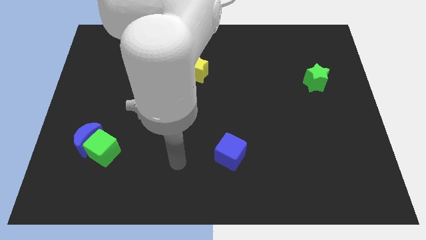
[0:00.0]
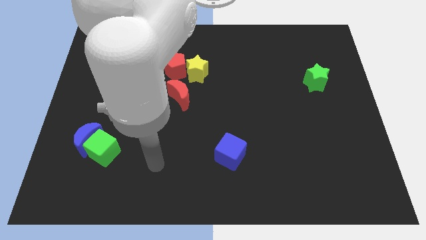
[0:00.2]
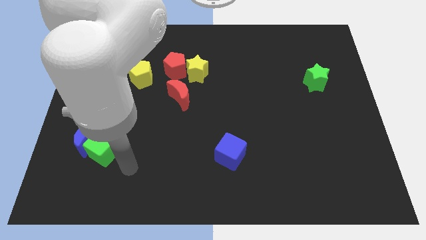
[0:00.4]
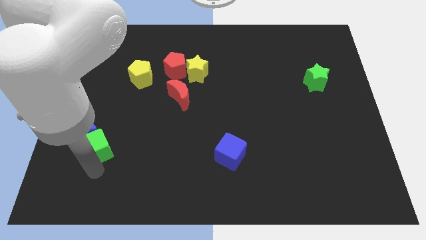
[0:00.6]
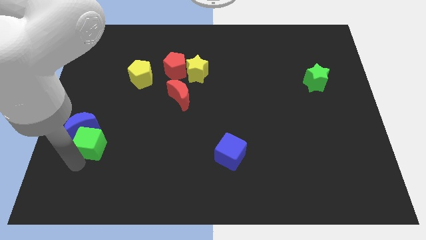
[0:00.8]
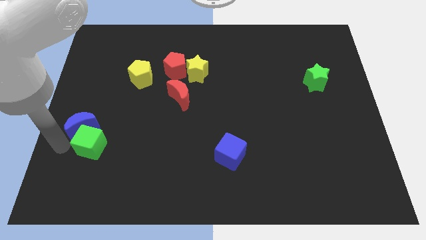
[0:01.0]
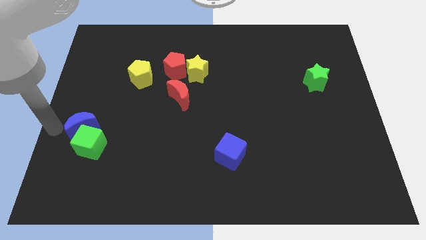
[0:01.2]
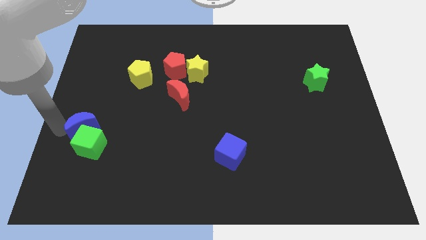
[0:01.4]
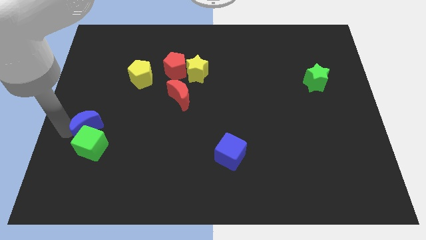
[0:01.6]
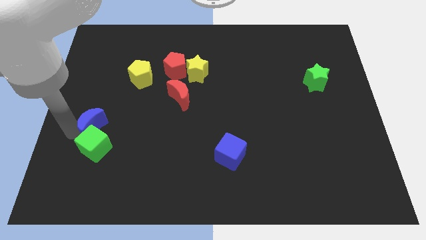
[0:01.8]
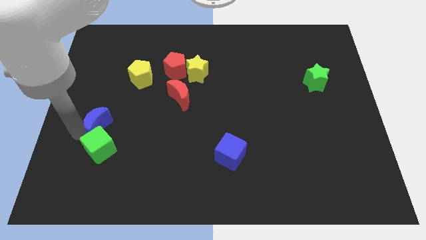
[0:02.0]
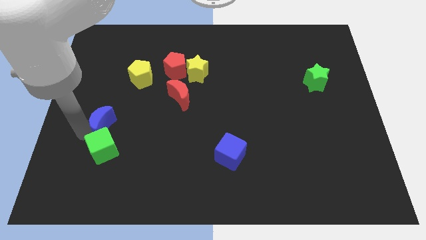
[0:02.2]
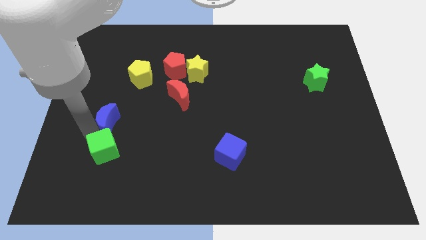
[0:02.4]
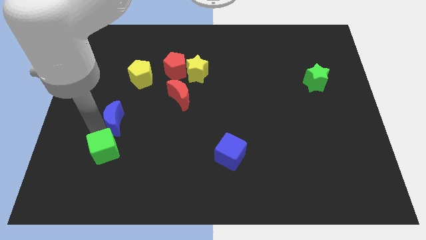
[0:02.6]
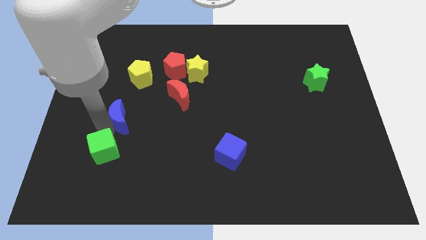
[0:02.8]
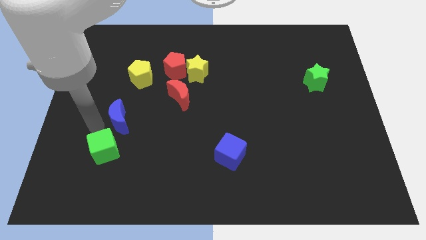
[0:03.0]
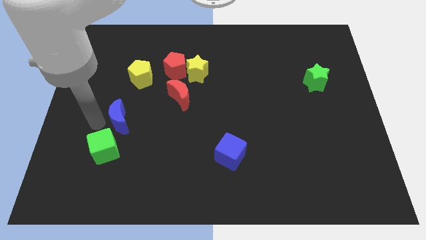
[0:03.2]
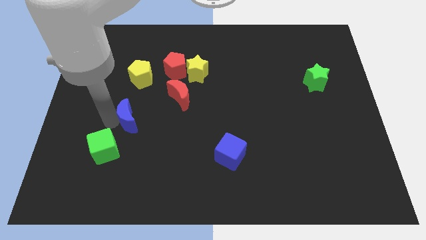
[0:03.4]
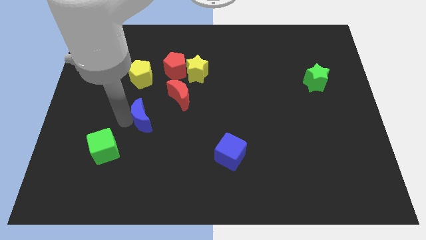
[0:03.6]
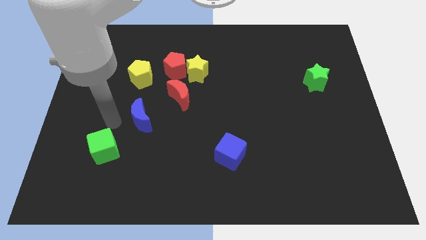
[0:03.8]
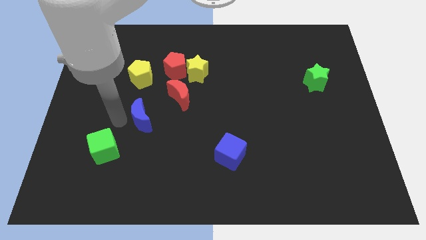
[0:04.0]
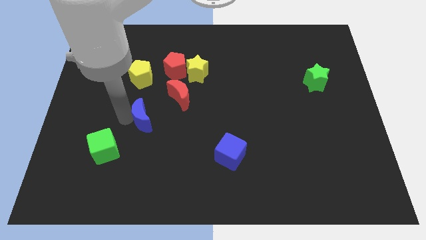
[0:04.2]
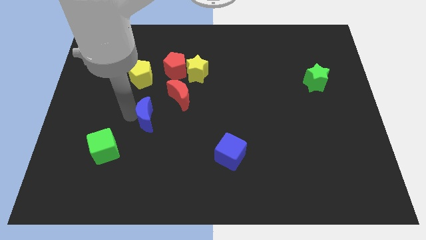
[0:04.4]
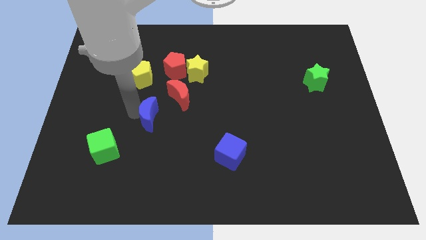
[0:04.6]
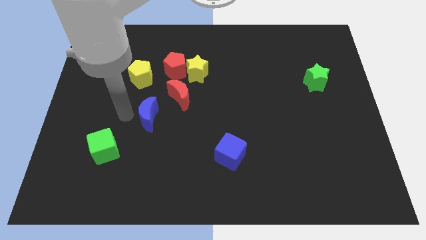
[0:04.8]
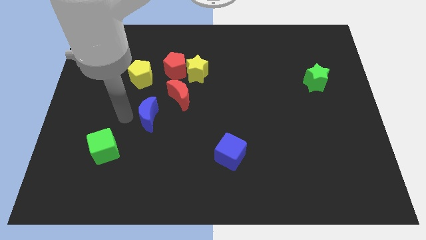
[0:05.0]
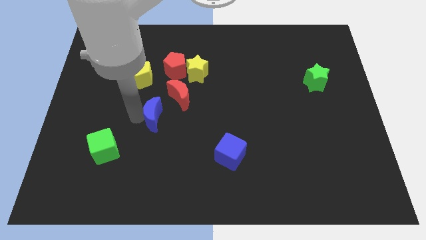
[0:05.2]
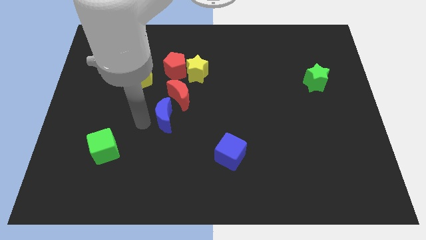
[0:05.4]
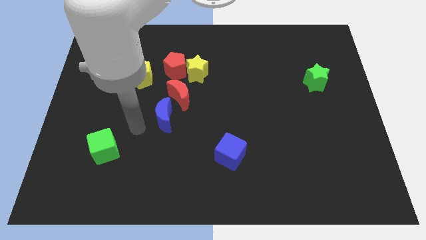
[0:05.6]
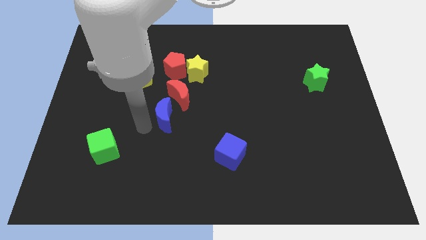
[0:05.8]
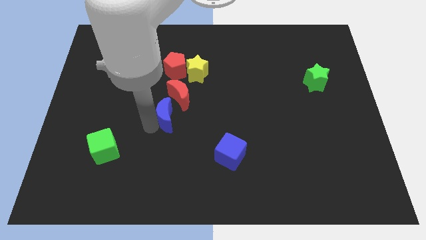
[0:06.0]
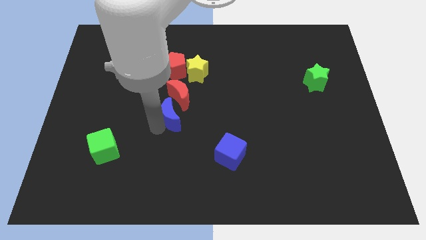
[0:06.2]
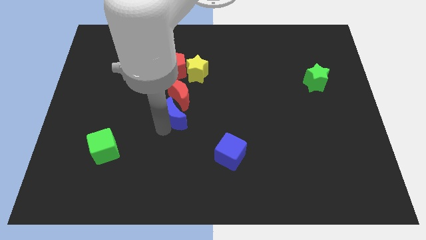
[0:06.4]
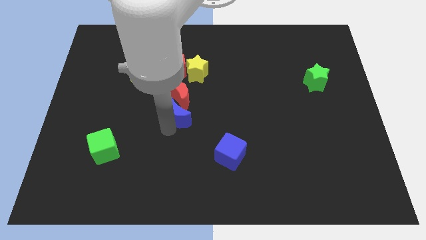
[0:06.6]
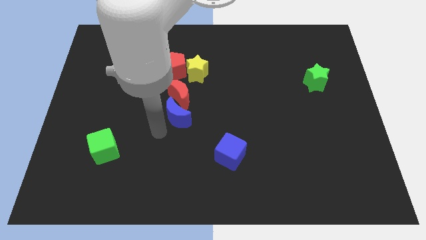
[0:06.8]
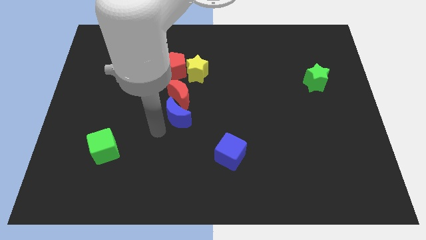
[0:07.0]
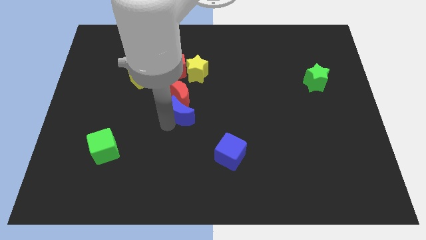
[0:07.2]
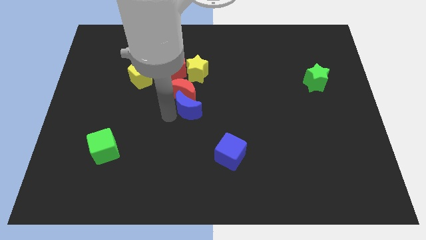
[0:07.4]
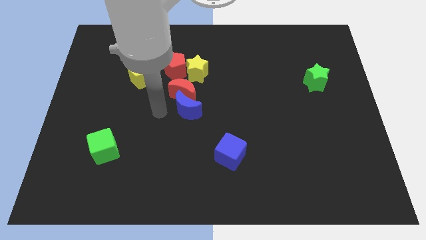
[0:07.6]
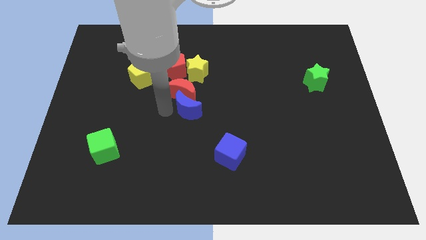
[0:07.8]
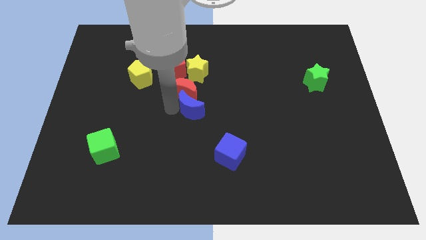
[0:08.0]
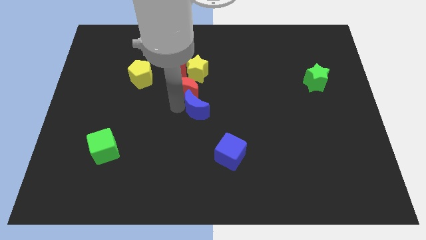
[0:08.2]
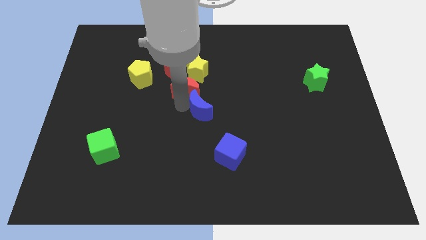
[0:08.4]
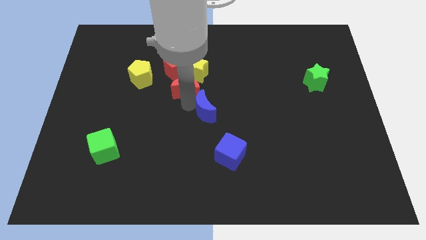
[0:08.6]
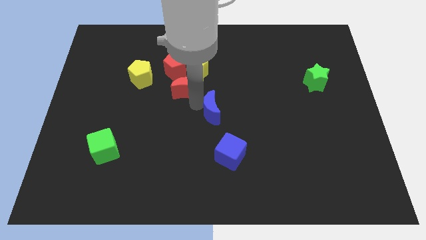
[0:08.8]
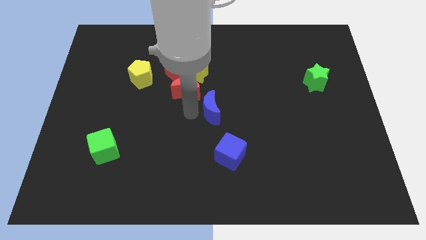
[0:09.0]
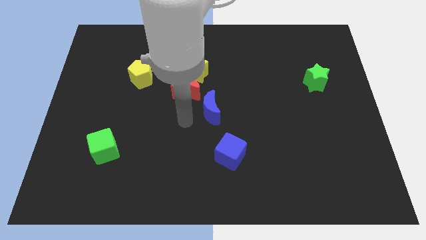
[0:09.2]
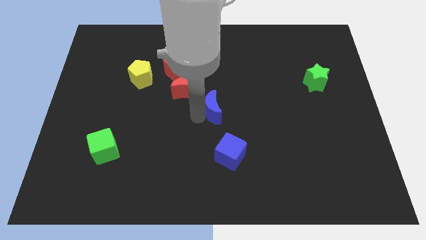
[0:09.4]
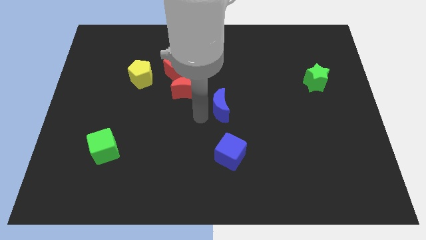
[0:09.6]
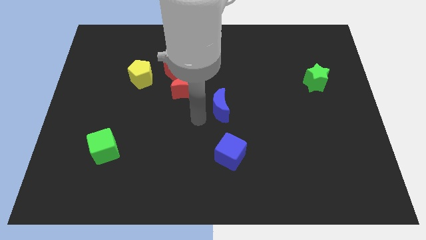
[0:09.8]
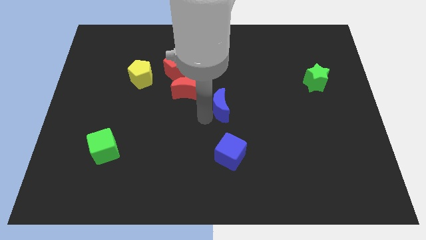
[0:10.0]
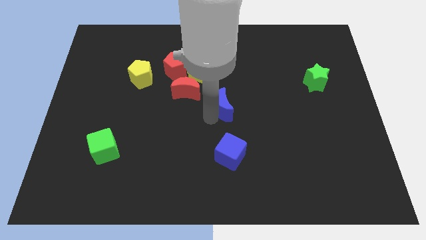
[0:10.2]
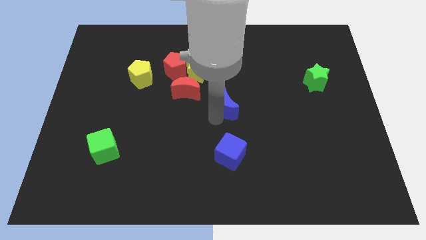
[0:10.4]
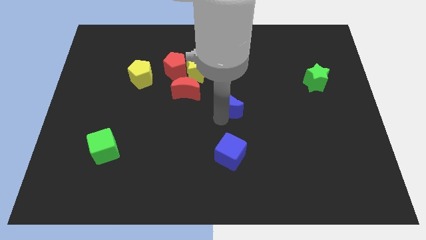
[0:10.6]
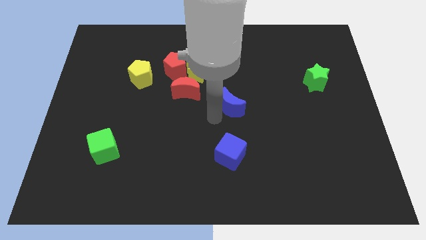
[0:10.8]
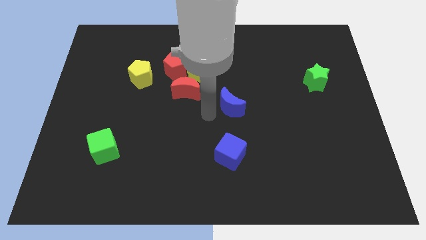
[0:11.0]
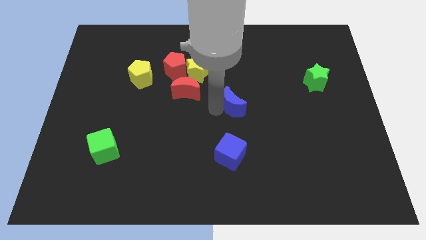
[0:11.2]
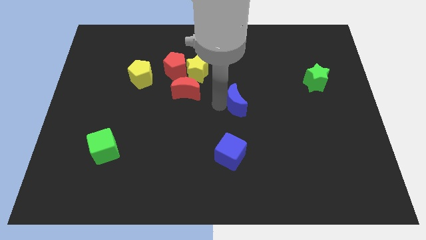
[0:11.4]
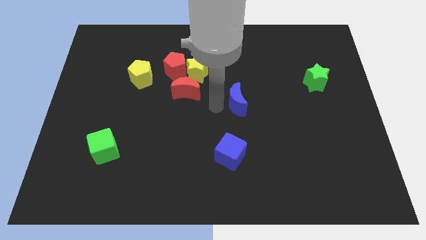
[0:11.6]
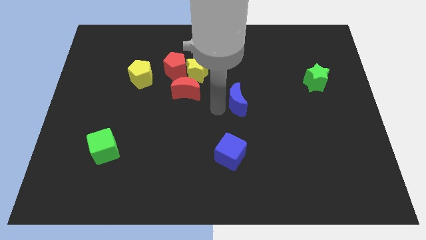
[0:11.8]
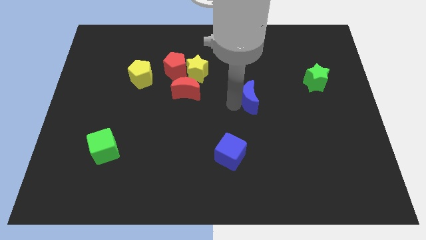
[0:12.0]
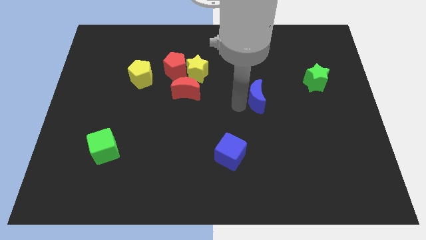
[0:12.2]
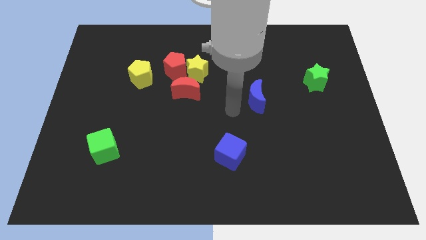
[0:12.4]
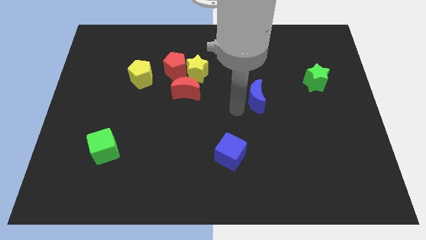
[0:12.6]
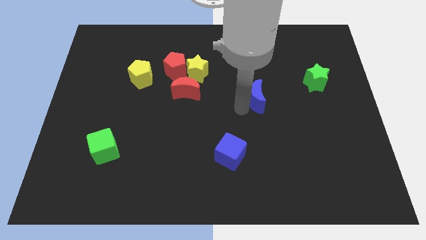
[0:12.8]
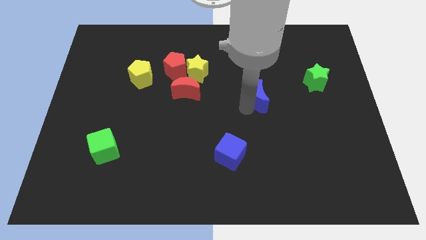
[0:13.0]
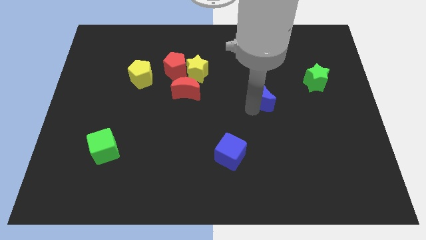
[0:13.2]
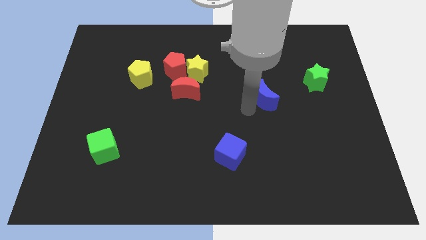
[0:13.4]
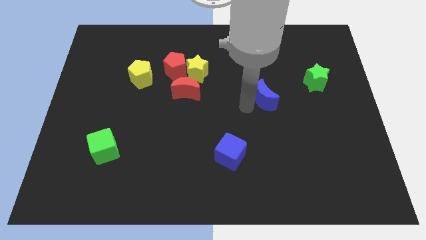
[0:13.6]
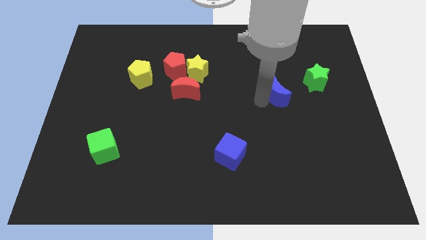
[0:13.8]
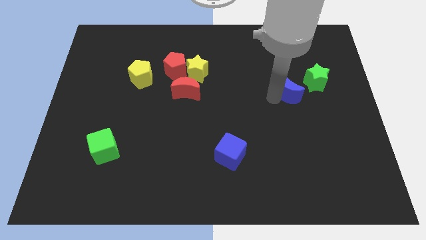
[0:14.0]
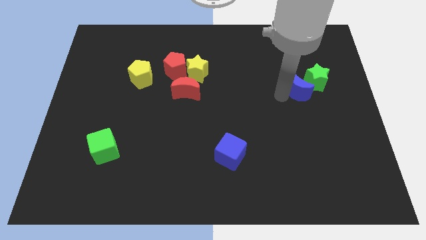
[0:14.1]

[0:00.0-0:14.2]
push the blue moon close to the green star
